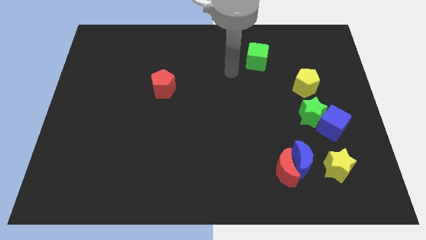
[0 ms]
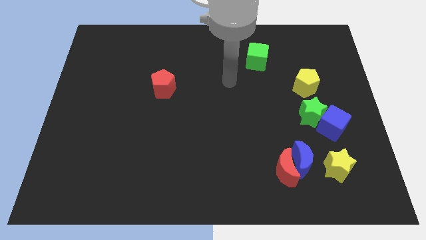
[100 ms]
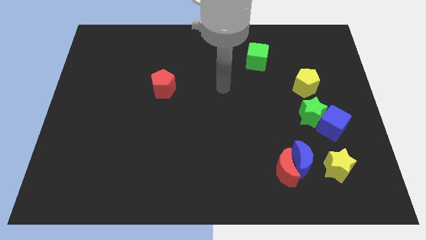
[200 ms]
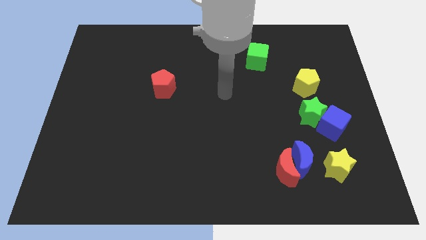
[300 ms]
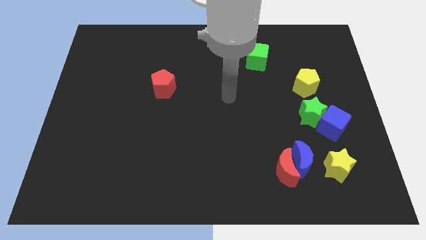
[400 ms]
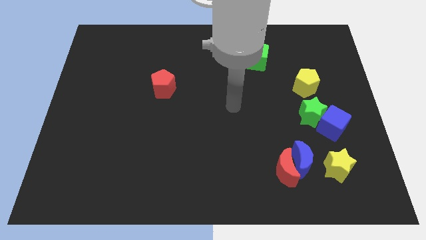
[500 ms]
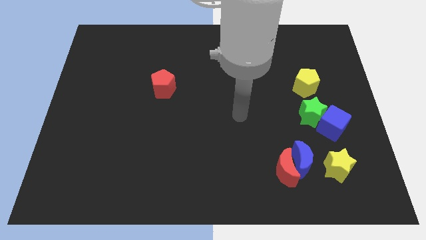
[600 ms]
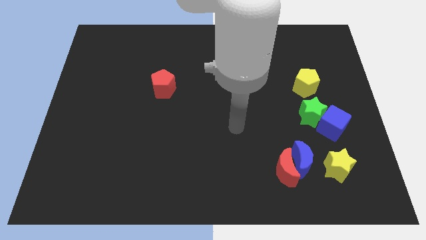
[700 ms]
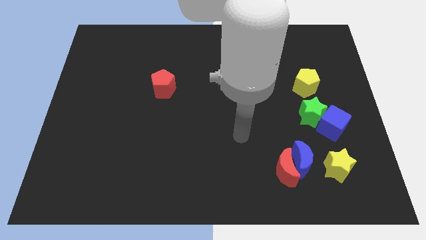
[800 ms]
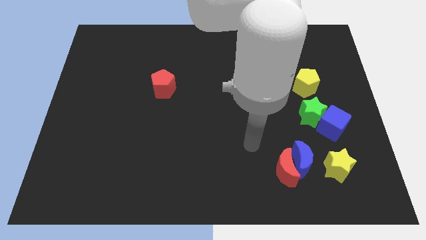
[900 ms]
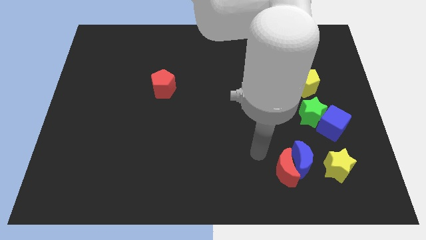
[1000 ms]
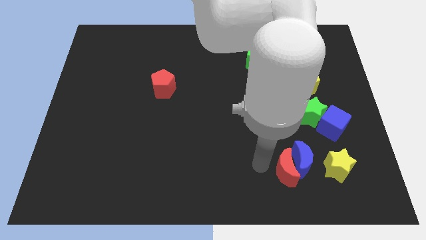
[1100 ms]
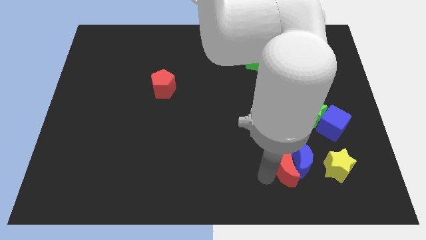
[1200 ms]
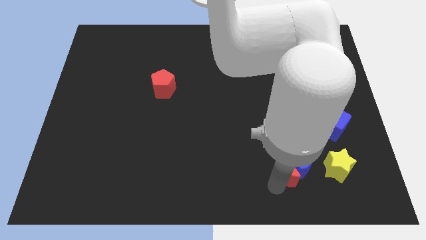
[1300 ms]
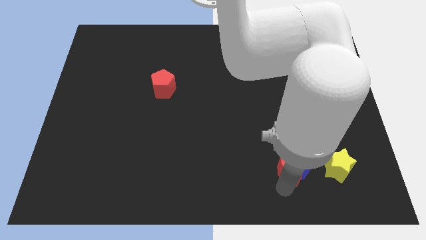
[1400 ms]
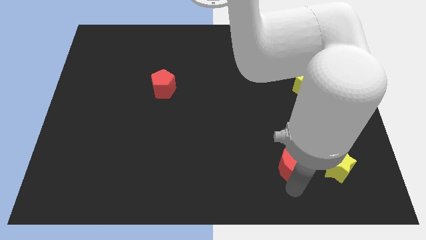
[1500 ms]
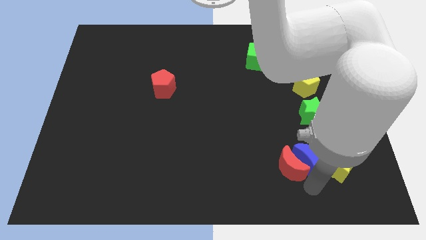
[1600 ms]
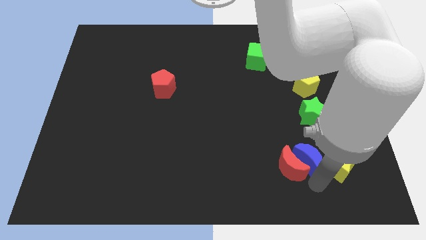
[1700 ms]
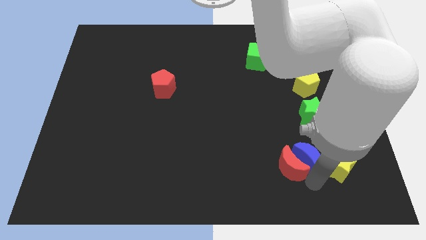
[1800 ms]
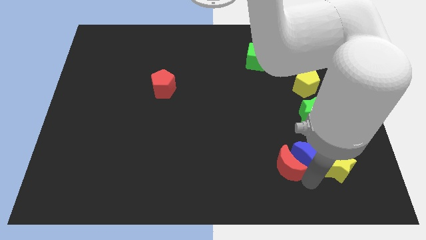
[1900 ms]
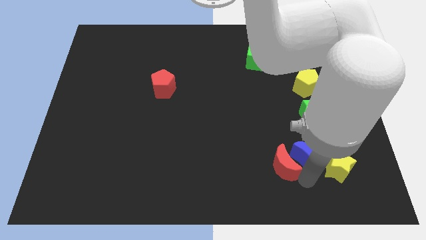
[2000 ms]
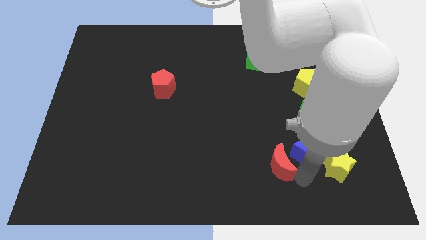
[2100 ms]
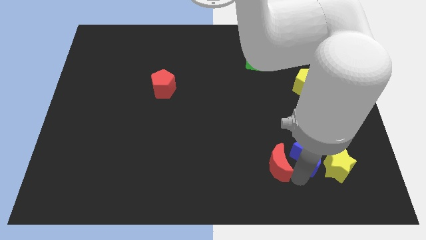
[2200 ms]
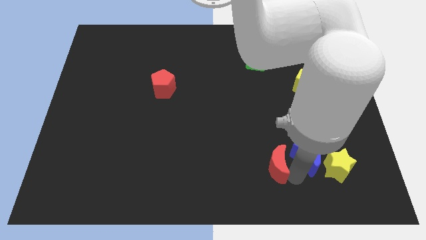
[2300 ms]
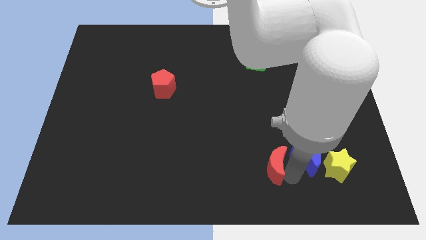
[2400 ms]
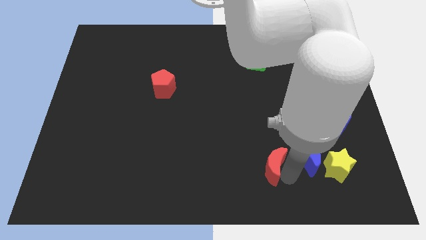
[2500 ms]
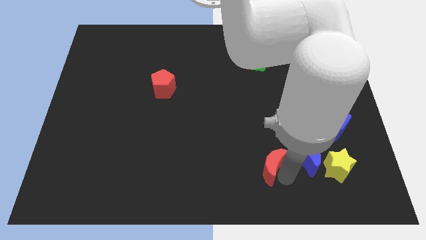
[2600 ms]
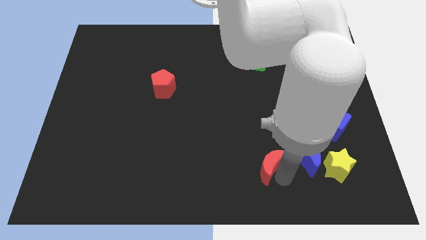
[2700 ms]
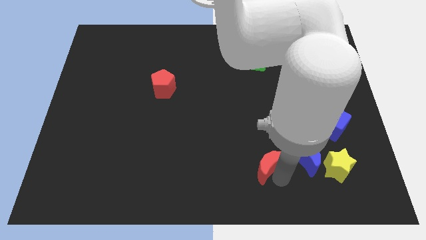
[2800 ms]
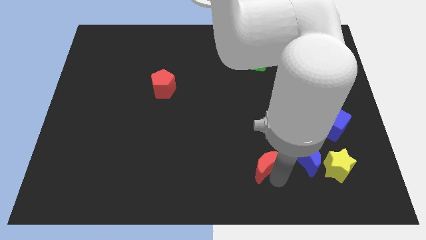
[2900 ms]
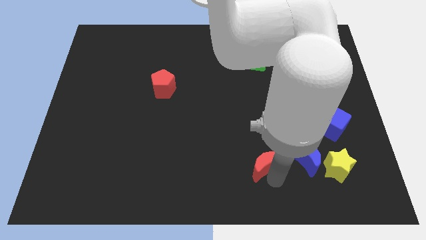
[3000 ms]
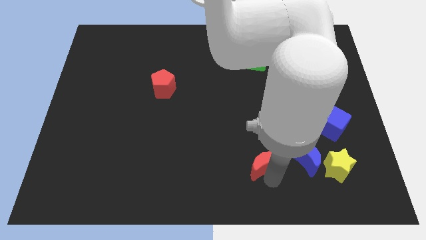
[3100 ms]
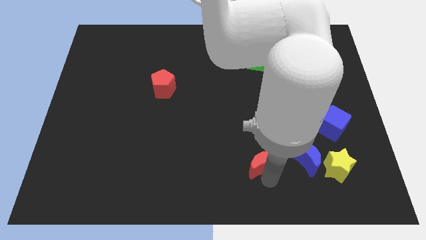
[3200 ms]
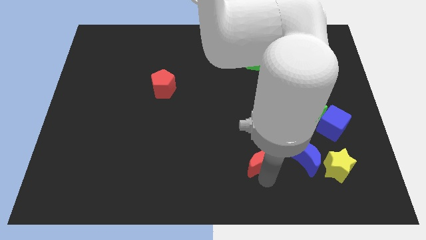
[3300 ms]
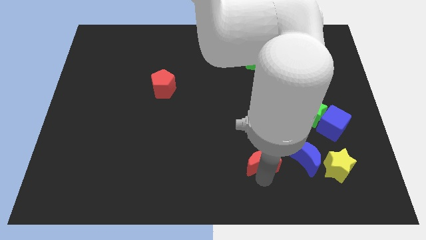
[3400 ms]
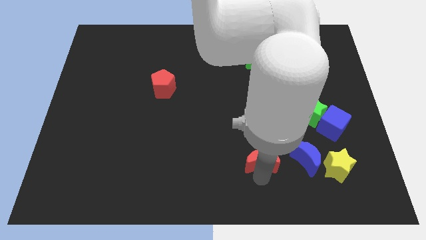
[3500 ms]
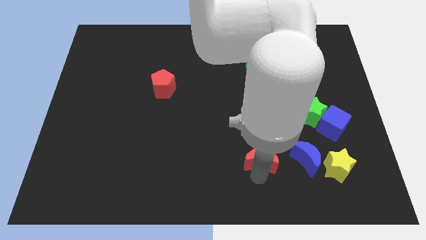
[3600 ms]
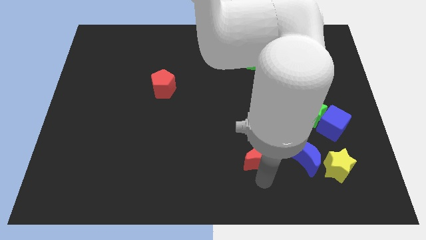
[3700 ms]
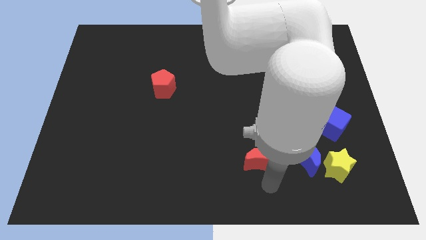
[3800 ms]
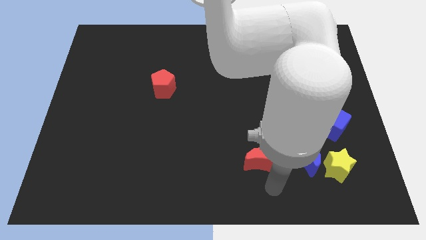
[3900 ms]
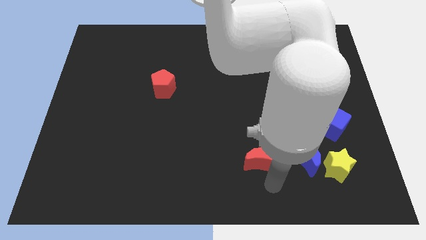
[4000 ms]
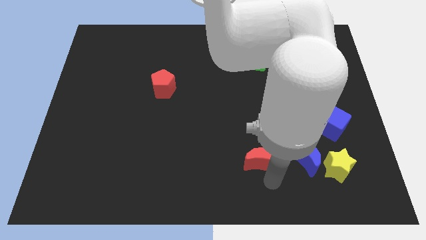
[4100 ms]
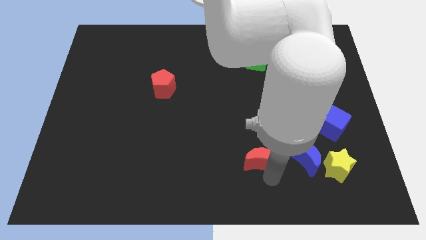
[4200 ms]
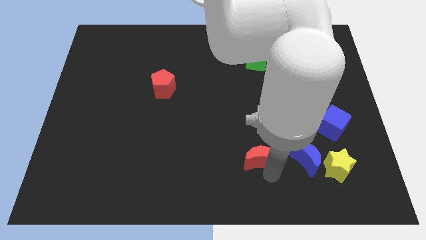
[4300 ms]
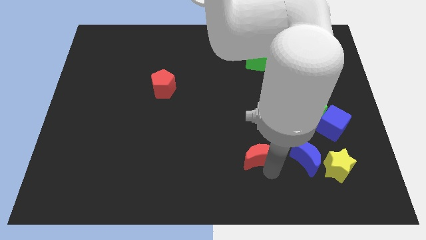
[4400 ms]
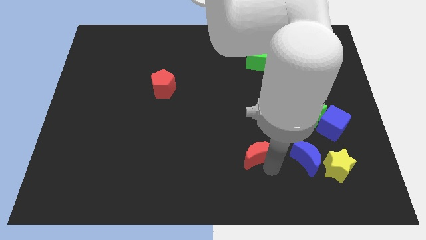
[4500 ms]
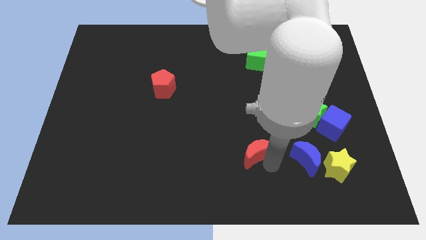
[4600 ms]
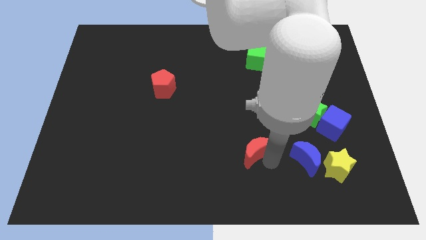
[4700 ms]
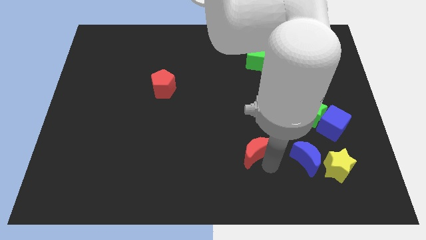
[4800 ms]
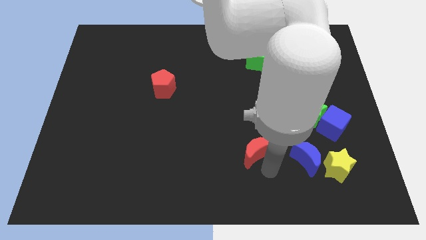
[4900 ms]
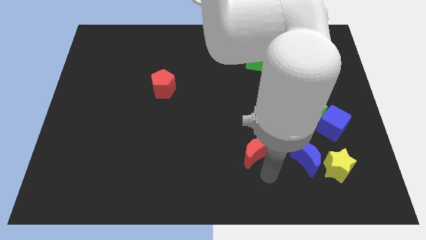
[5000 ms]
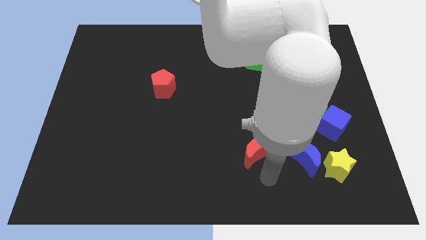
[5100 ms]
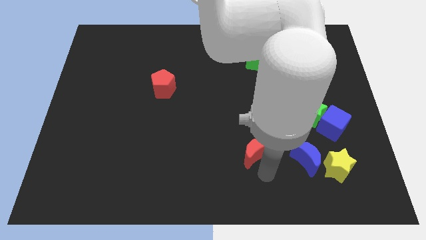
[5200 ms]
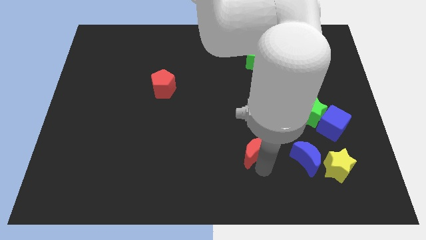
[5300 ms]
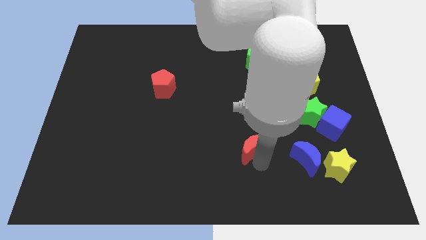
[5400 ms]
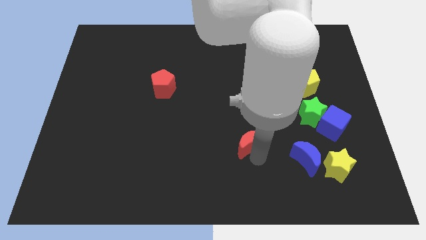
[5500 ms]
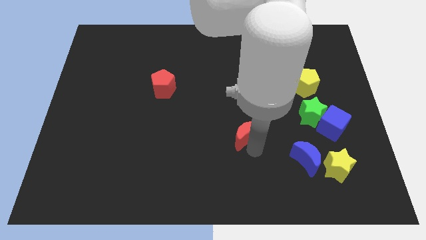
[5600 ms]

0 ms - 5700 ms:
push the red moon to the center

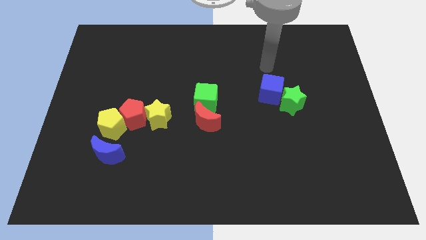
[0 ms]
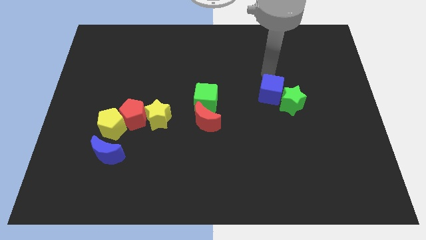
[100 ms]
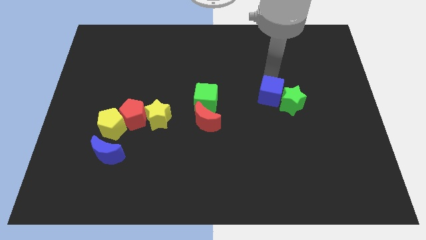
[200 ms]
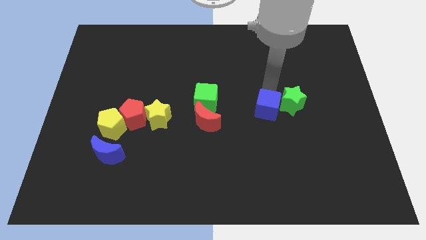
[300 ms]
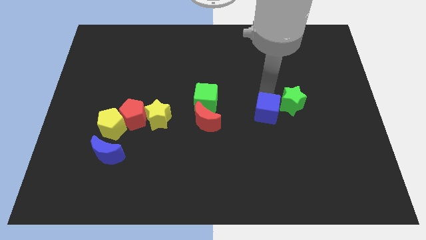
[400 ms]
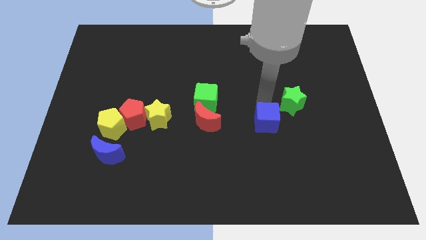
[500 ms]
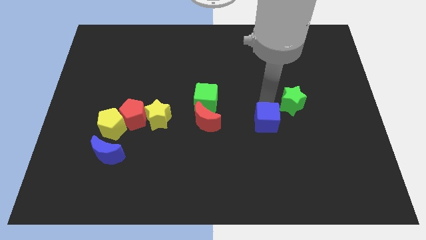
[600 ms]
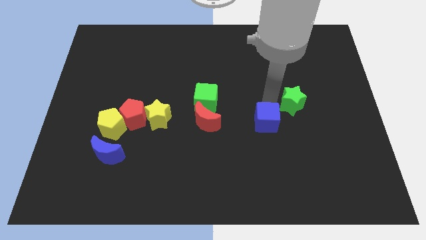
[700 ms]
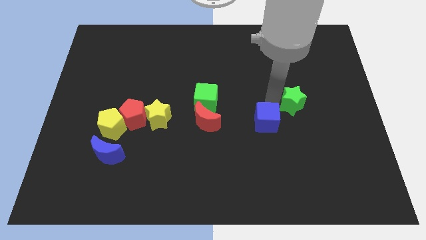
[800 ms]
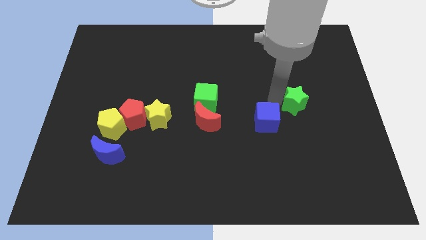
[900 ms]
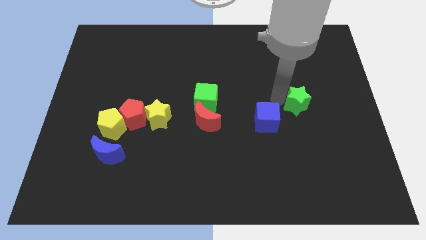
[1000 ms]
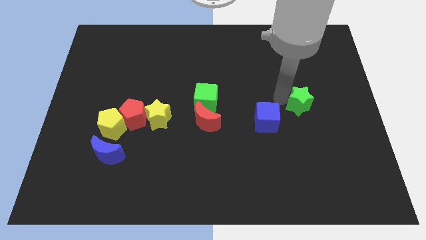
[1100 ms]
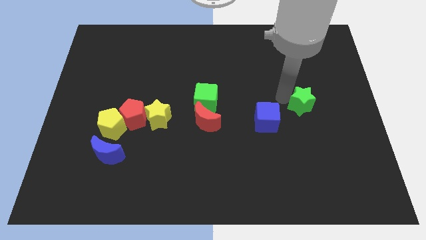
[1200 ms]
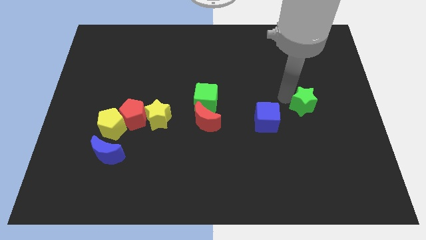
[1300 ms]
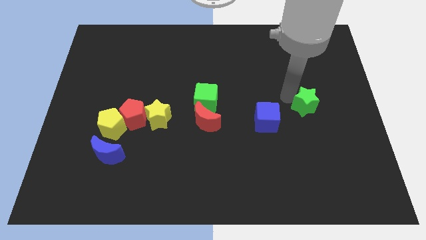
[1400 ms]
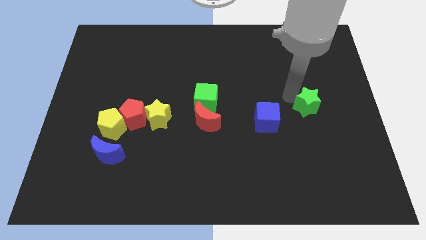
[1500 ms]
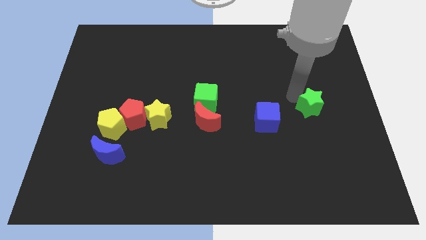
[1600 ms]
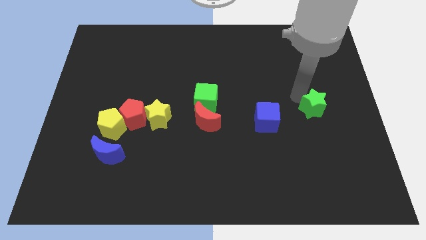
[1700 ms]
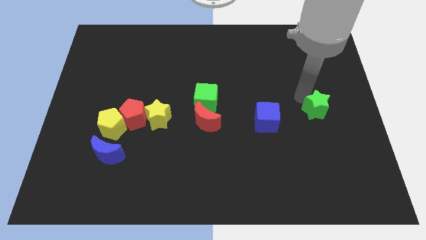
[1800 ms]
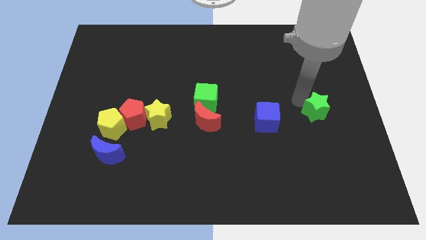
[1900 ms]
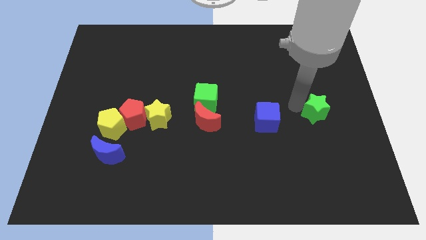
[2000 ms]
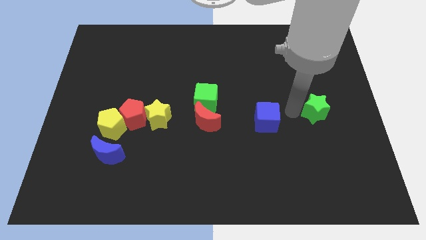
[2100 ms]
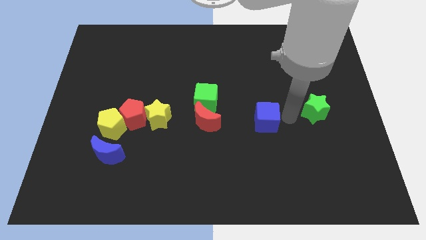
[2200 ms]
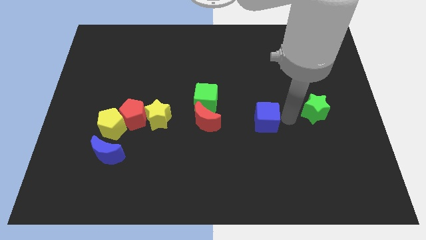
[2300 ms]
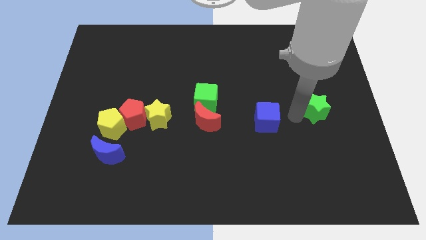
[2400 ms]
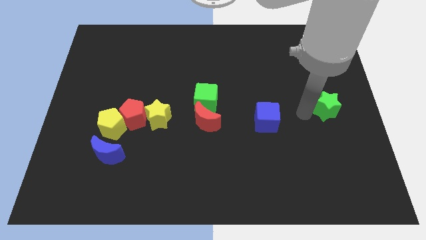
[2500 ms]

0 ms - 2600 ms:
push the green star to the right side of the board
